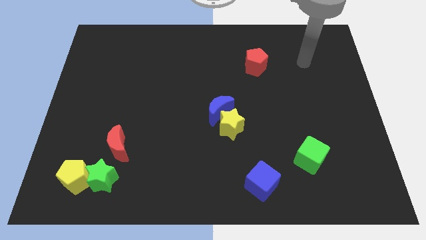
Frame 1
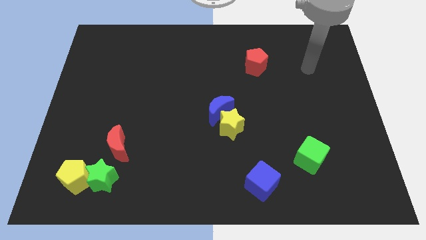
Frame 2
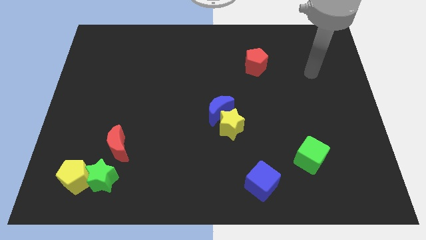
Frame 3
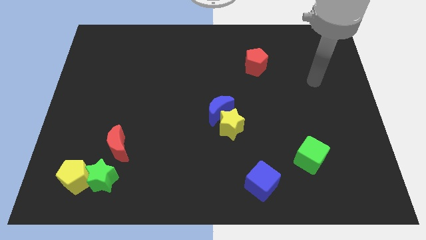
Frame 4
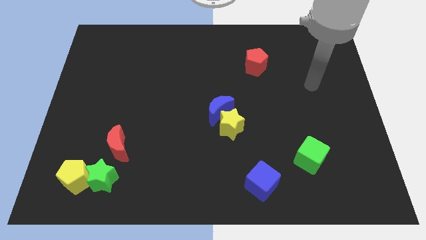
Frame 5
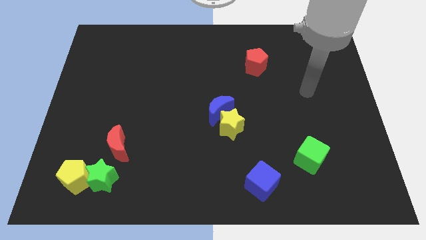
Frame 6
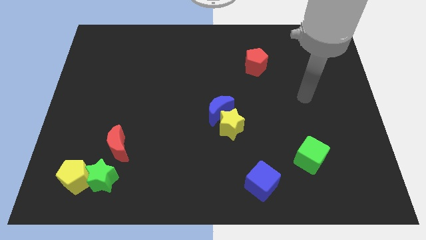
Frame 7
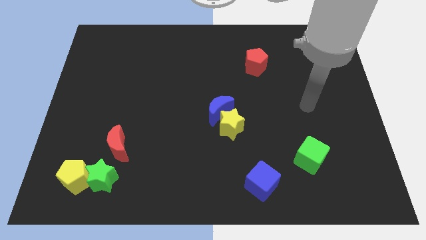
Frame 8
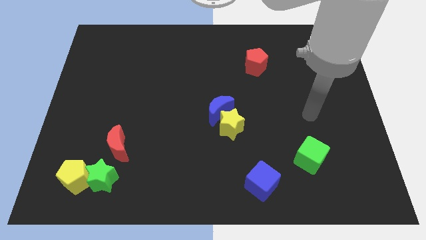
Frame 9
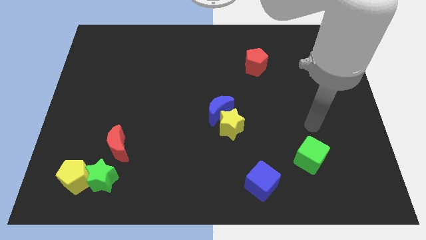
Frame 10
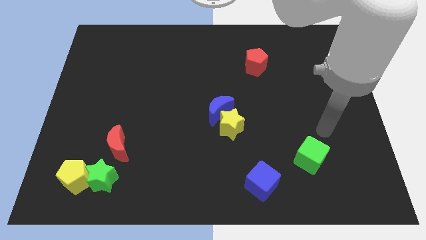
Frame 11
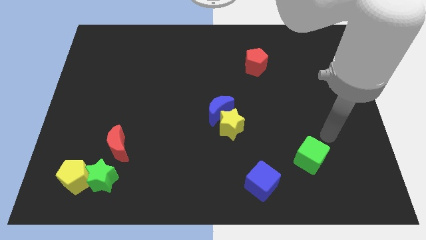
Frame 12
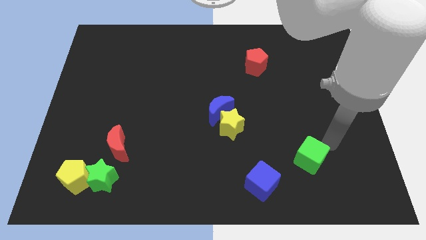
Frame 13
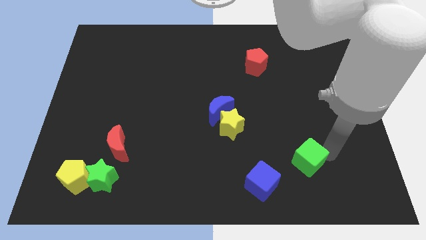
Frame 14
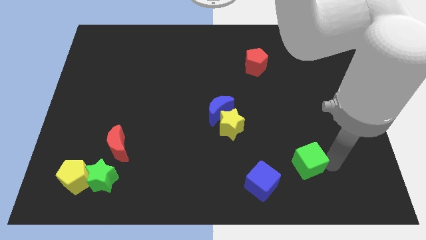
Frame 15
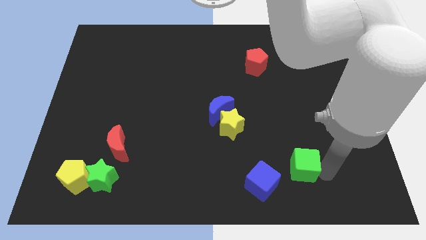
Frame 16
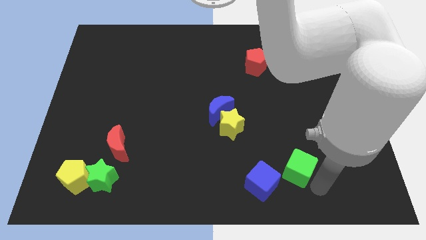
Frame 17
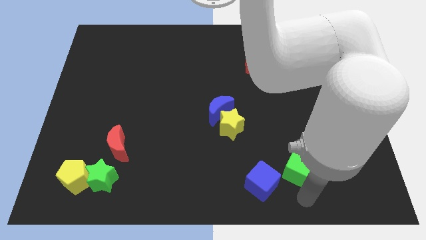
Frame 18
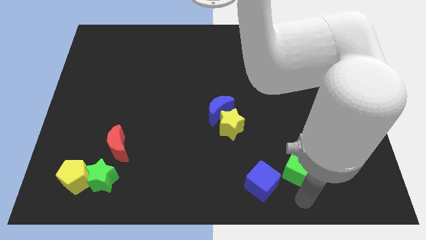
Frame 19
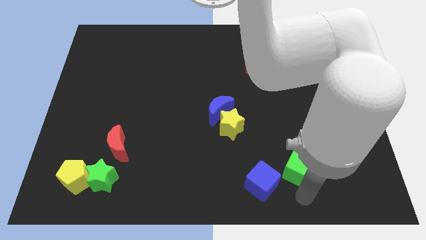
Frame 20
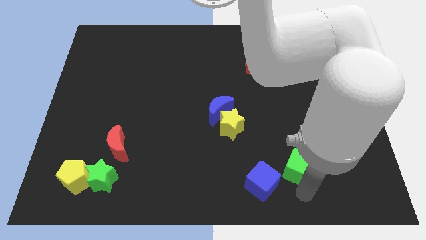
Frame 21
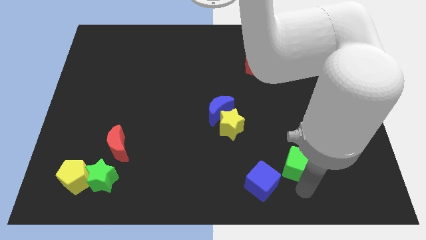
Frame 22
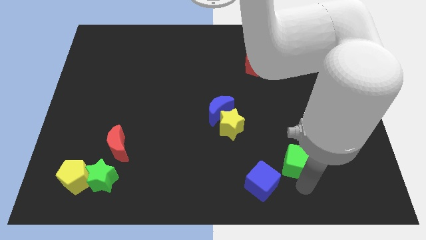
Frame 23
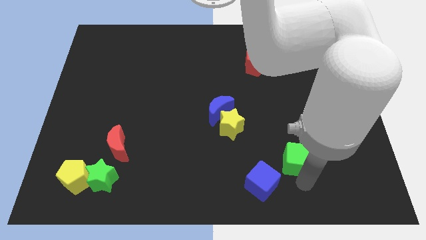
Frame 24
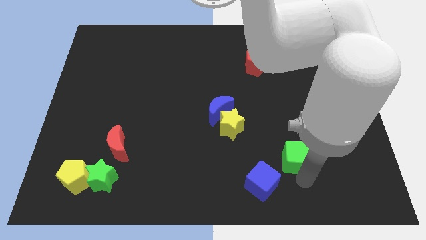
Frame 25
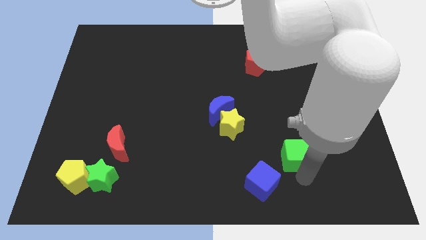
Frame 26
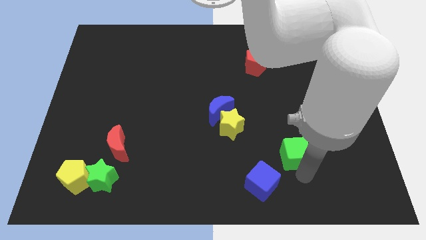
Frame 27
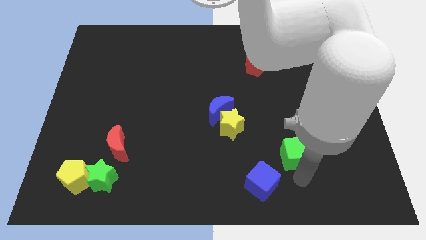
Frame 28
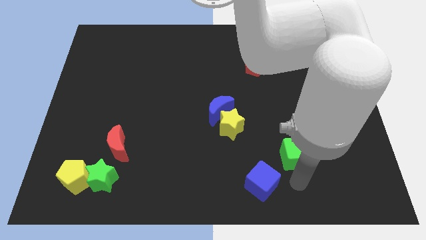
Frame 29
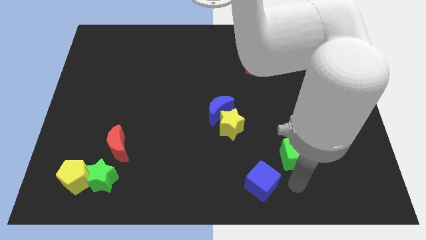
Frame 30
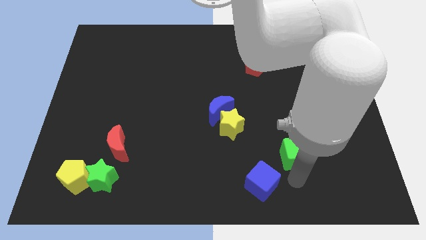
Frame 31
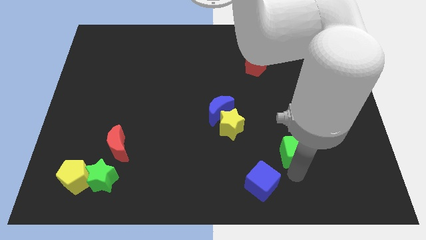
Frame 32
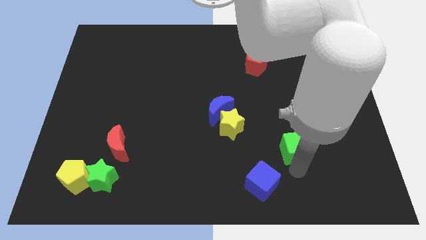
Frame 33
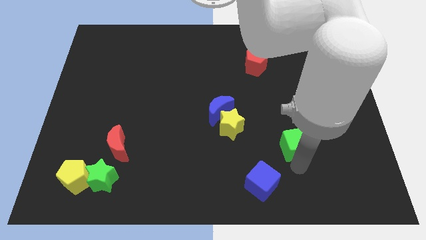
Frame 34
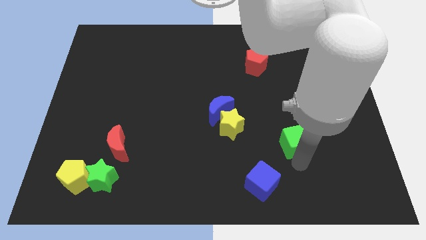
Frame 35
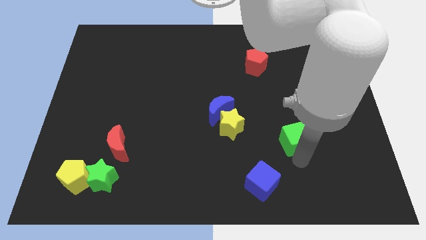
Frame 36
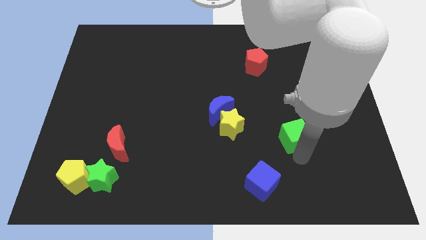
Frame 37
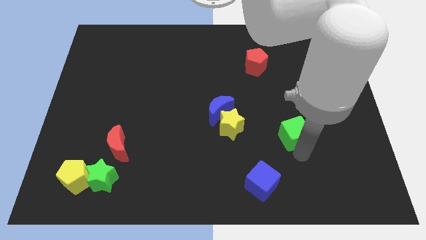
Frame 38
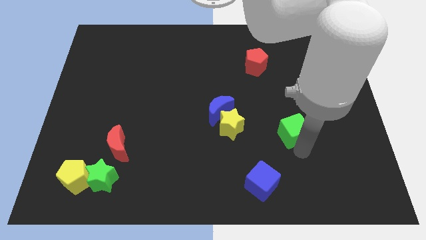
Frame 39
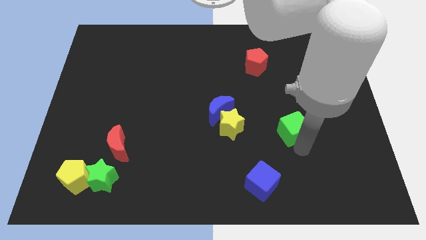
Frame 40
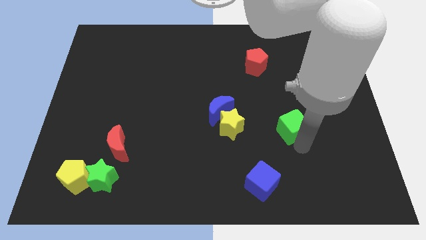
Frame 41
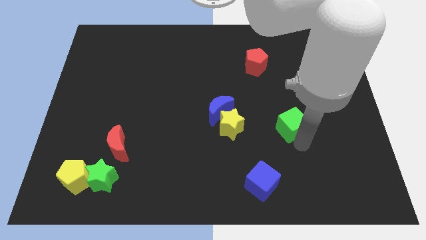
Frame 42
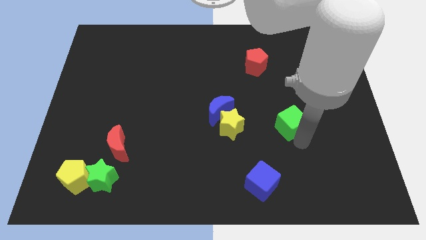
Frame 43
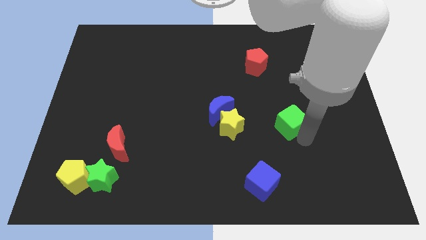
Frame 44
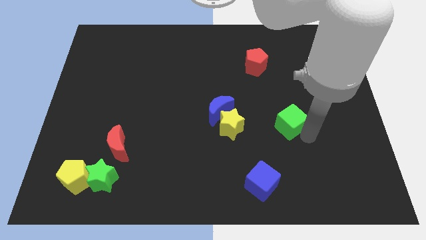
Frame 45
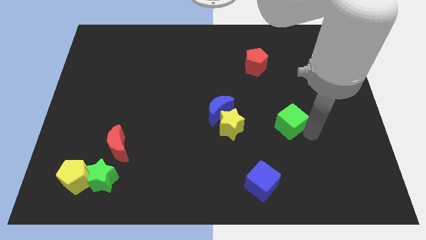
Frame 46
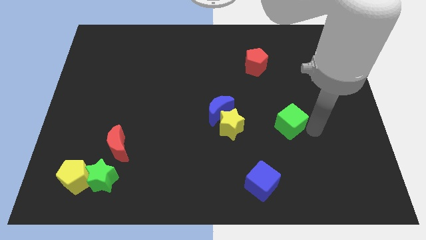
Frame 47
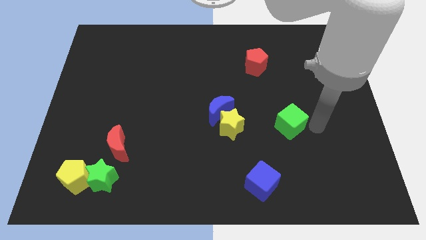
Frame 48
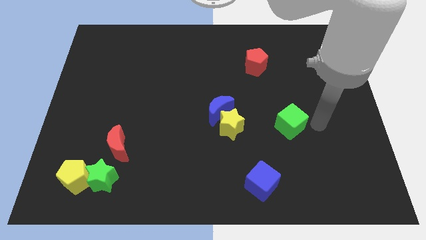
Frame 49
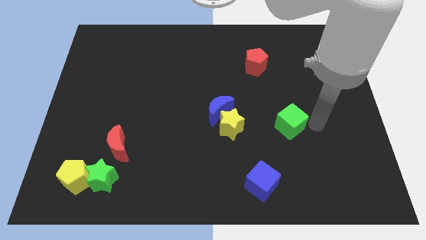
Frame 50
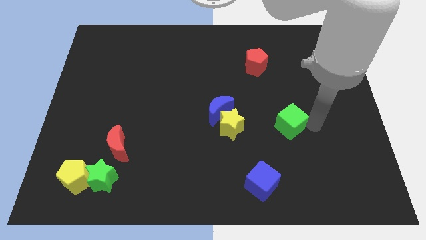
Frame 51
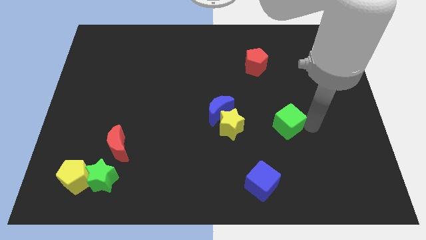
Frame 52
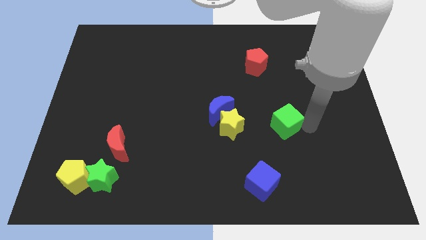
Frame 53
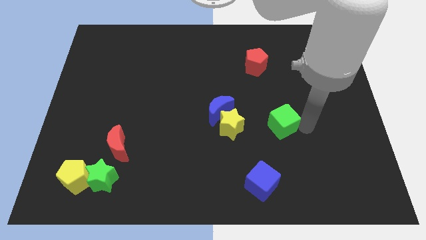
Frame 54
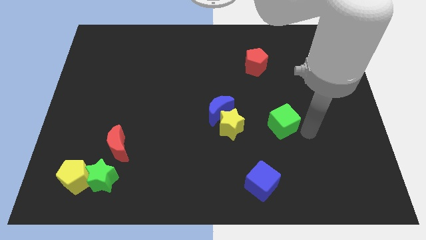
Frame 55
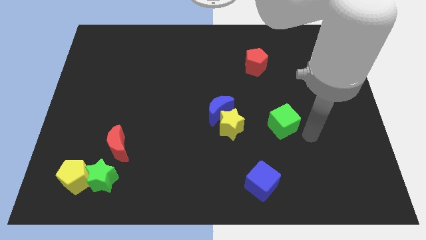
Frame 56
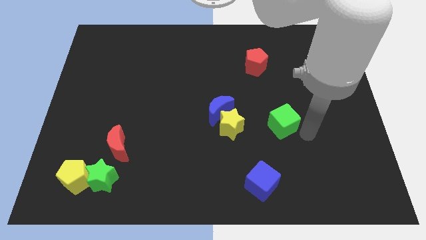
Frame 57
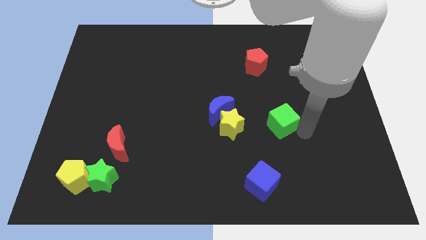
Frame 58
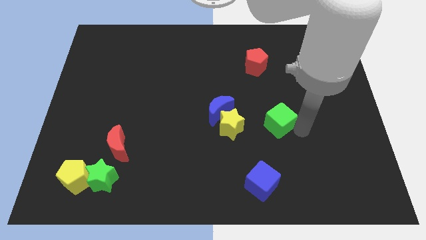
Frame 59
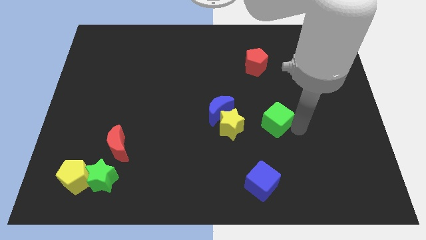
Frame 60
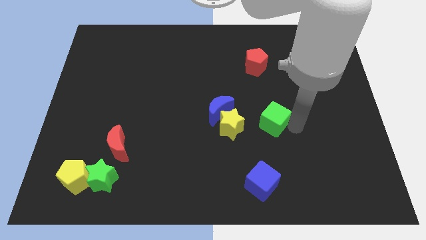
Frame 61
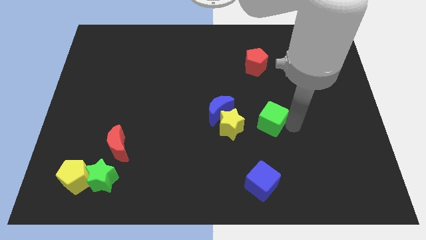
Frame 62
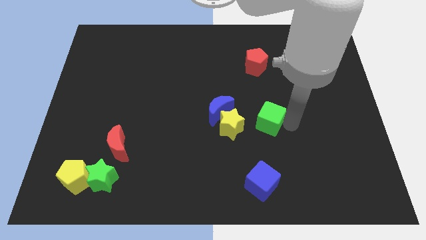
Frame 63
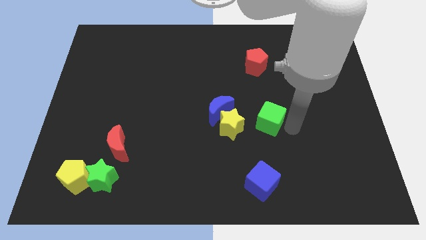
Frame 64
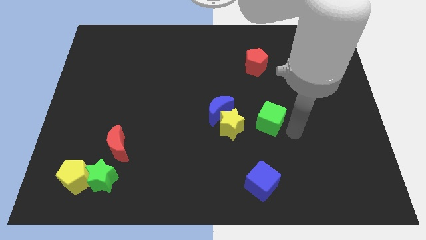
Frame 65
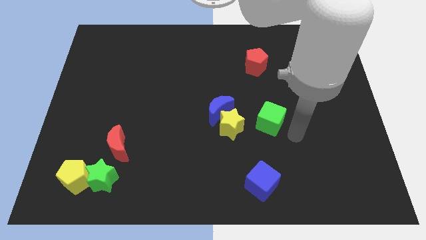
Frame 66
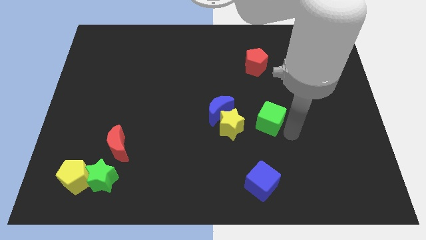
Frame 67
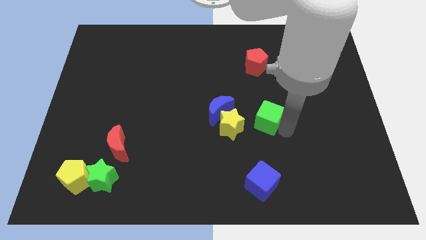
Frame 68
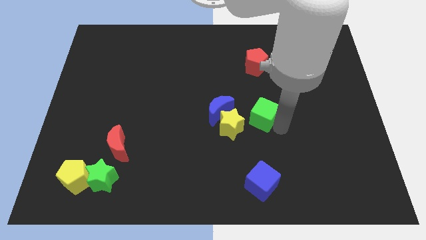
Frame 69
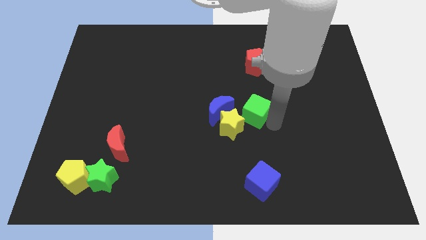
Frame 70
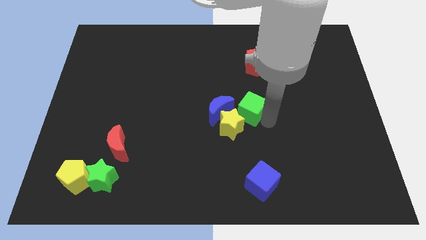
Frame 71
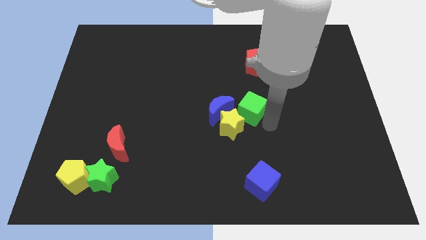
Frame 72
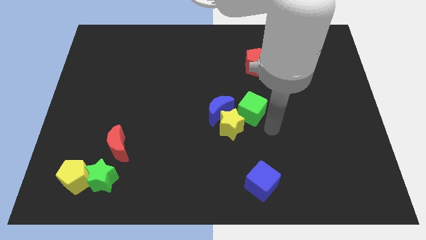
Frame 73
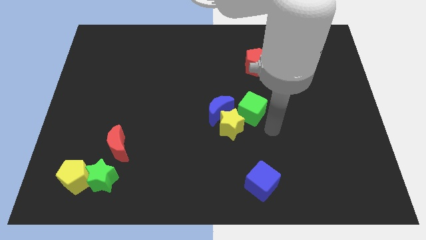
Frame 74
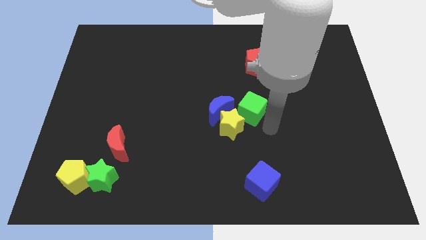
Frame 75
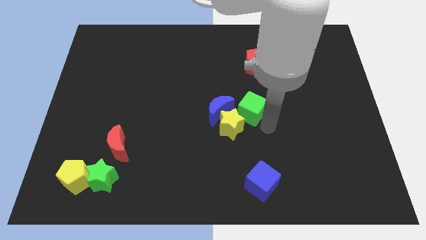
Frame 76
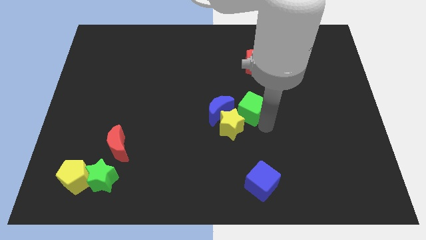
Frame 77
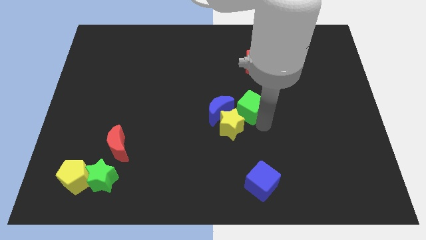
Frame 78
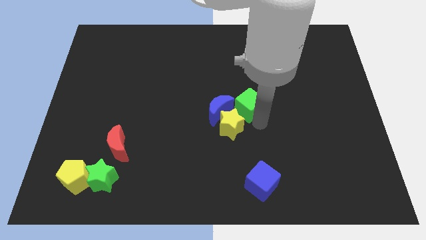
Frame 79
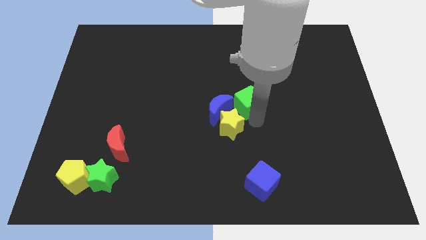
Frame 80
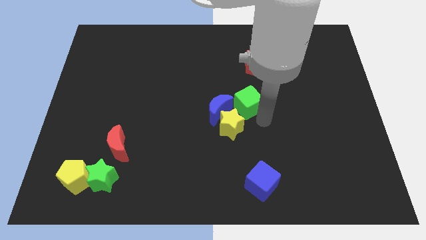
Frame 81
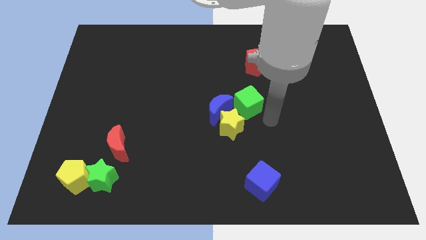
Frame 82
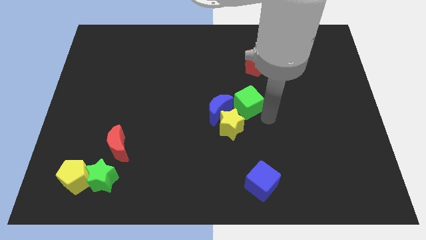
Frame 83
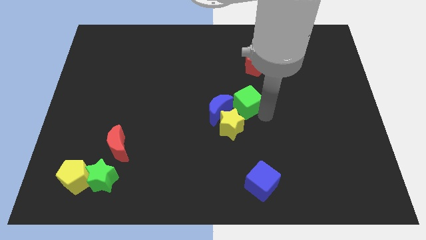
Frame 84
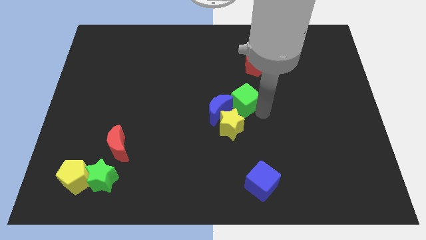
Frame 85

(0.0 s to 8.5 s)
move the green cube up and then left
